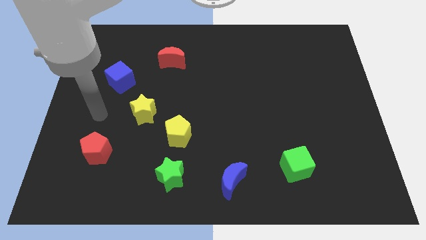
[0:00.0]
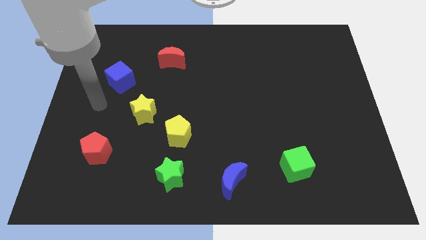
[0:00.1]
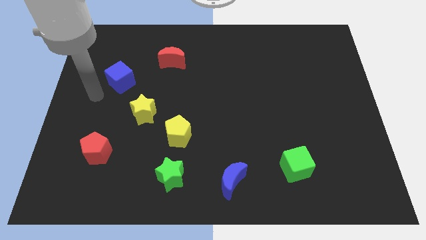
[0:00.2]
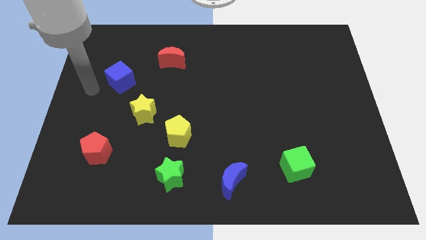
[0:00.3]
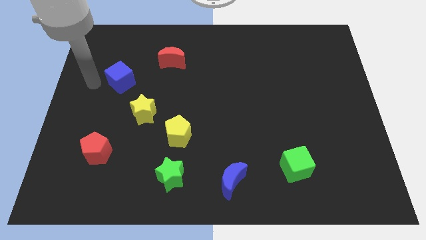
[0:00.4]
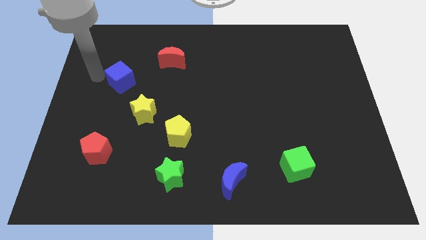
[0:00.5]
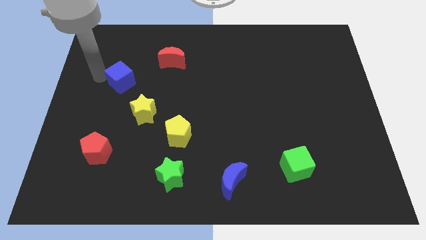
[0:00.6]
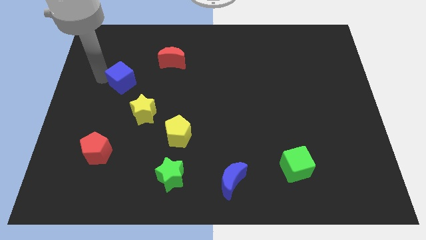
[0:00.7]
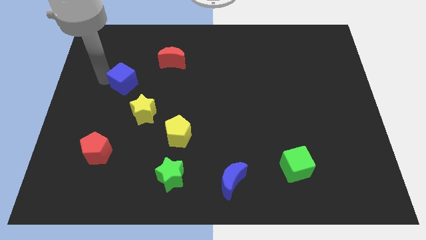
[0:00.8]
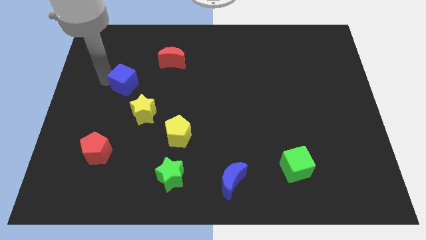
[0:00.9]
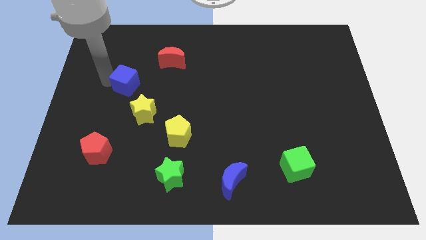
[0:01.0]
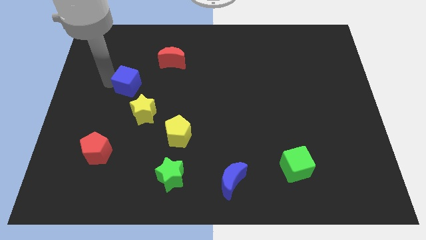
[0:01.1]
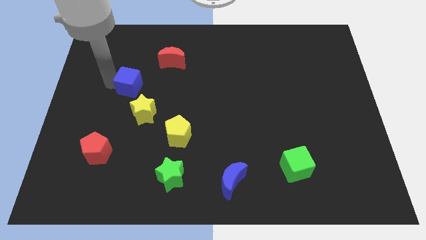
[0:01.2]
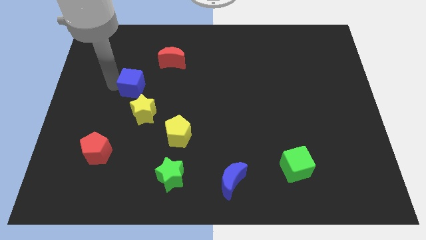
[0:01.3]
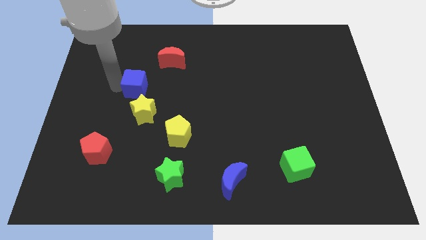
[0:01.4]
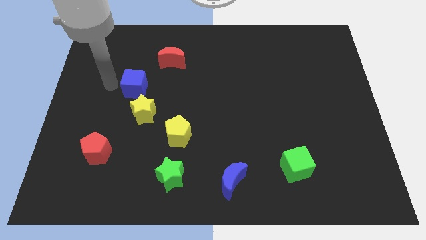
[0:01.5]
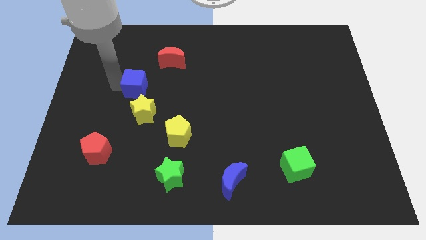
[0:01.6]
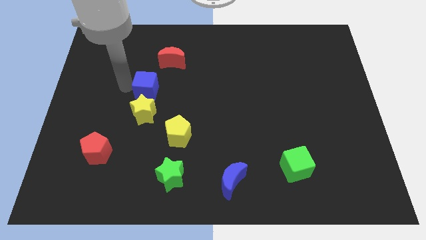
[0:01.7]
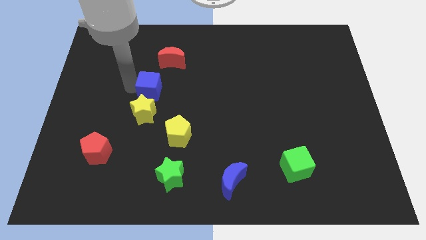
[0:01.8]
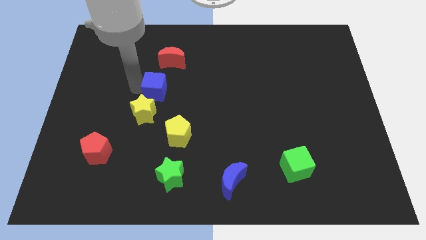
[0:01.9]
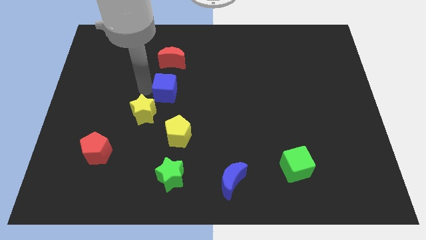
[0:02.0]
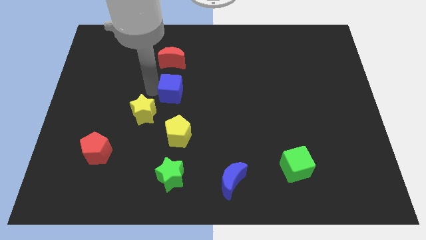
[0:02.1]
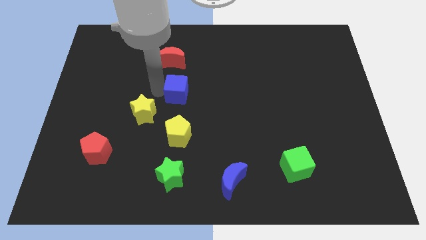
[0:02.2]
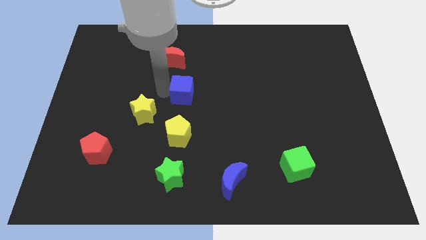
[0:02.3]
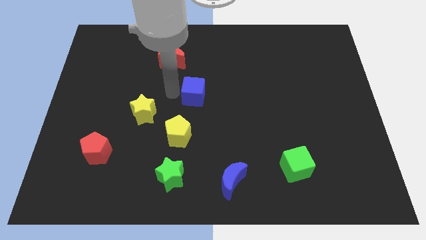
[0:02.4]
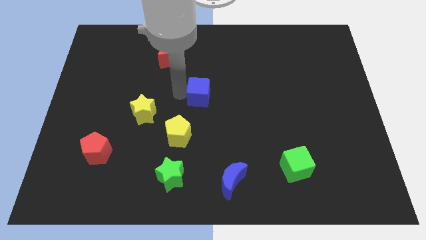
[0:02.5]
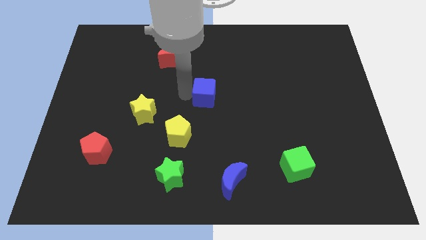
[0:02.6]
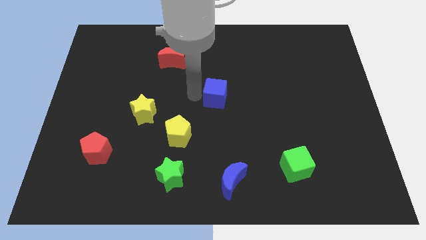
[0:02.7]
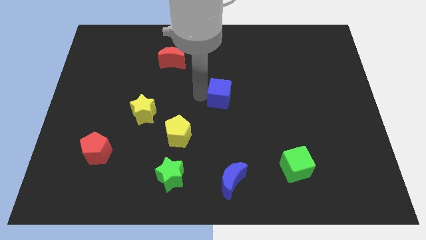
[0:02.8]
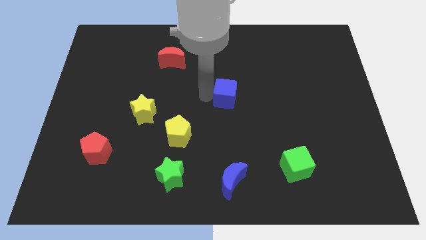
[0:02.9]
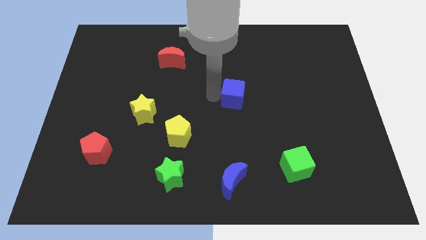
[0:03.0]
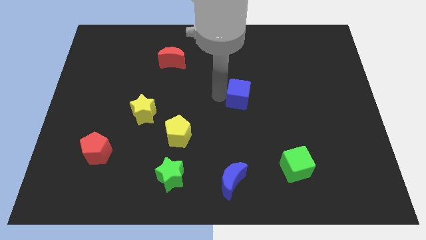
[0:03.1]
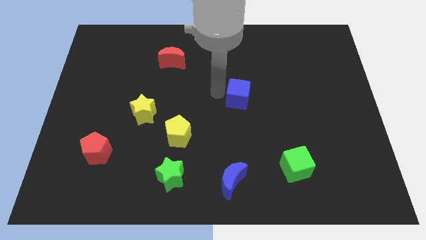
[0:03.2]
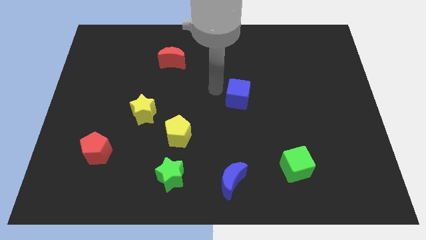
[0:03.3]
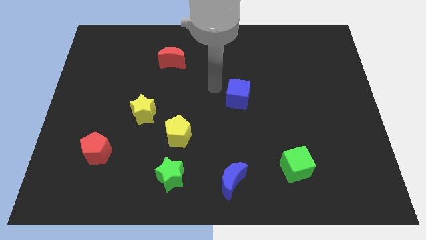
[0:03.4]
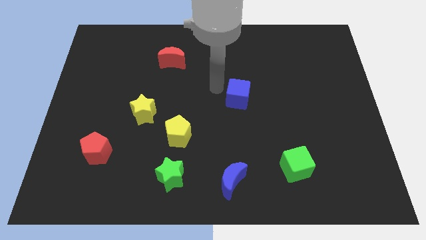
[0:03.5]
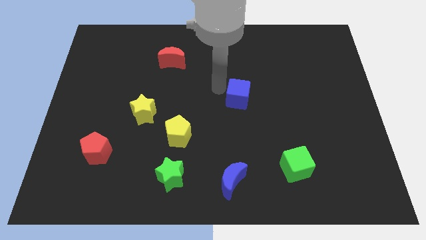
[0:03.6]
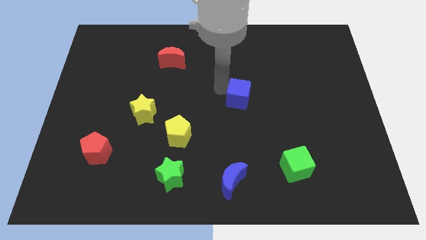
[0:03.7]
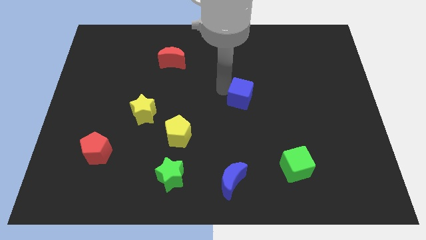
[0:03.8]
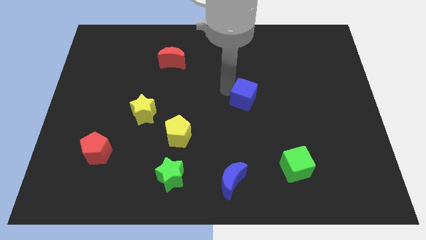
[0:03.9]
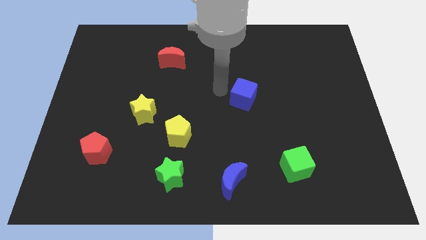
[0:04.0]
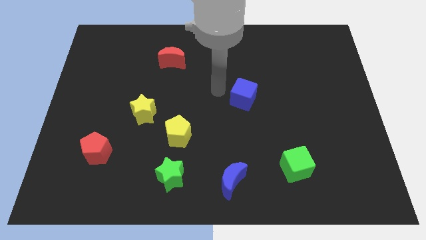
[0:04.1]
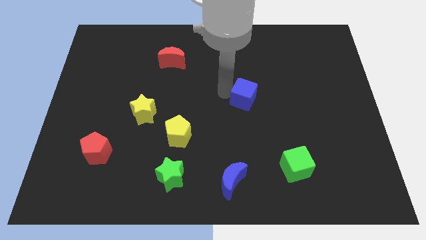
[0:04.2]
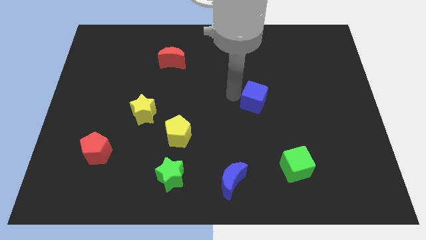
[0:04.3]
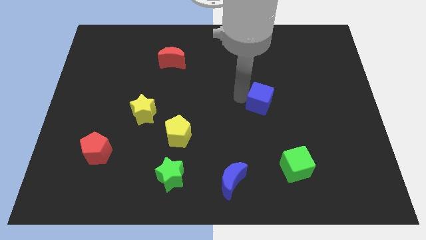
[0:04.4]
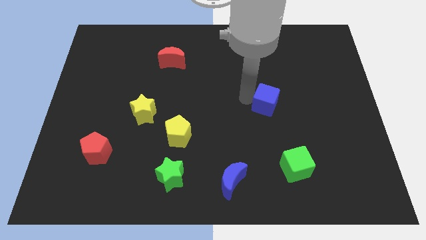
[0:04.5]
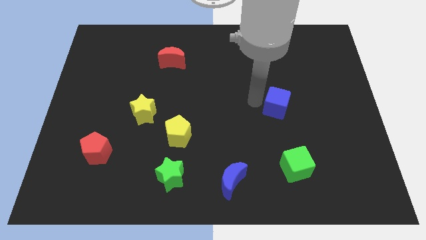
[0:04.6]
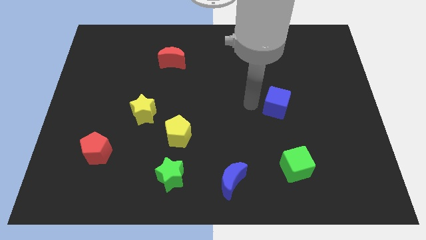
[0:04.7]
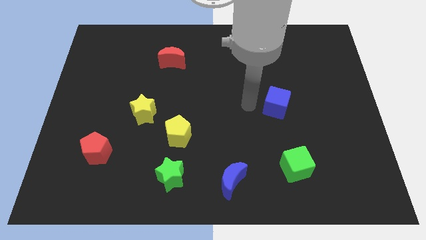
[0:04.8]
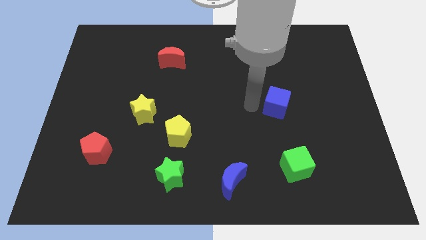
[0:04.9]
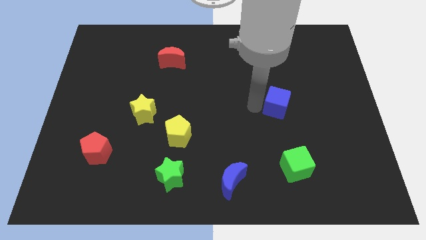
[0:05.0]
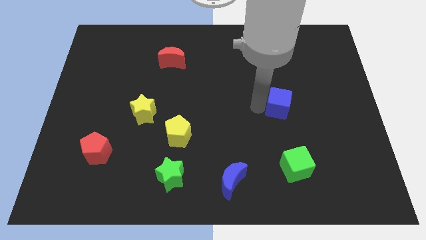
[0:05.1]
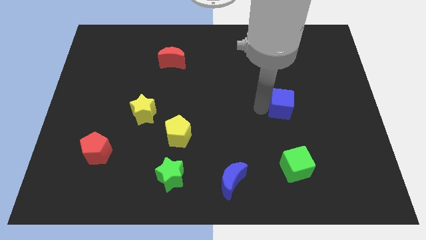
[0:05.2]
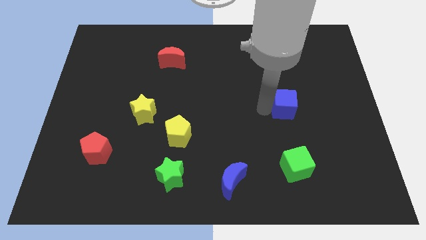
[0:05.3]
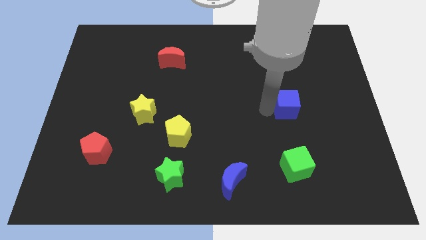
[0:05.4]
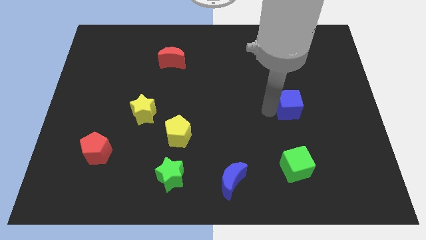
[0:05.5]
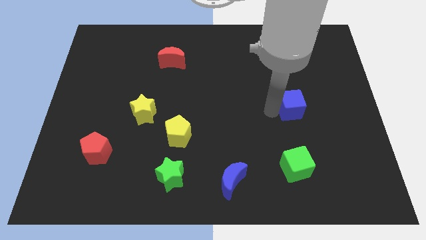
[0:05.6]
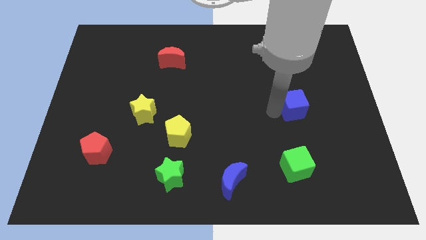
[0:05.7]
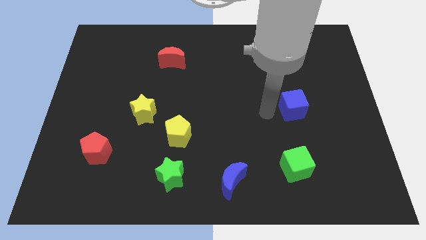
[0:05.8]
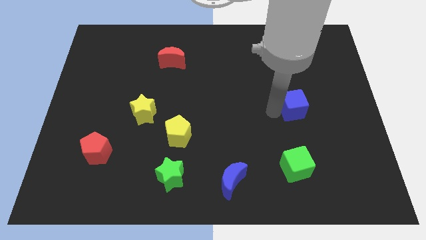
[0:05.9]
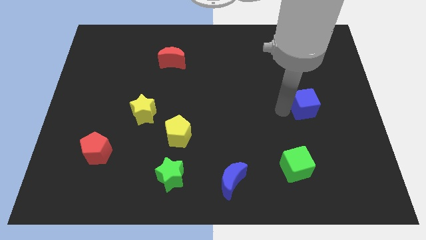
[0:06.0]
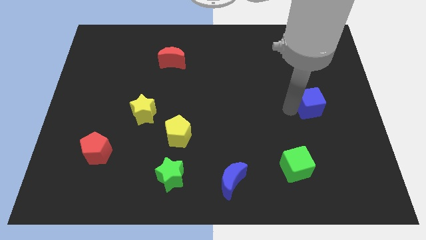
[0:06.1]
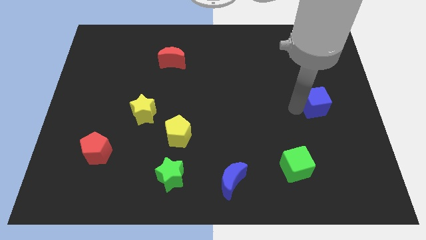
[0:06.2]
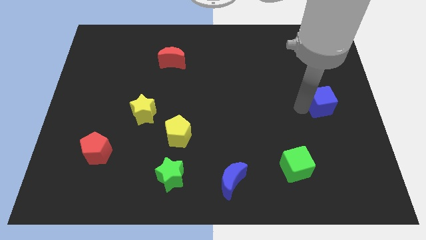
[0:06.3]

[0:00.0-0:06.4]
move the blue cube to the center right

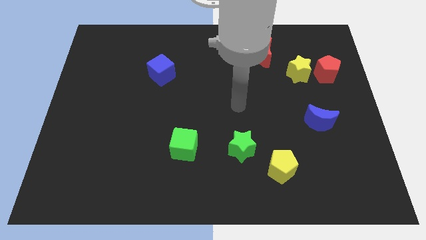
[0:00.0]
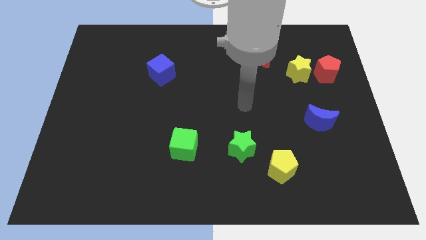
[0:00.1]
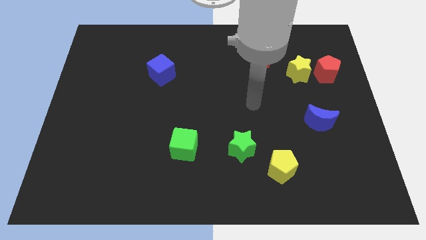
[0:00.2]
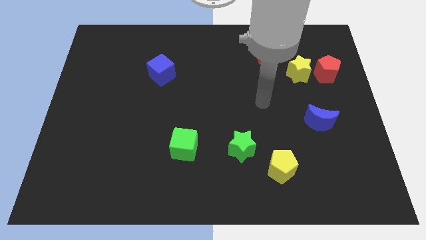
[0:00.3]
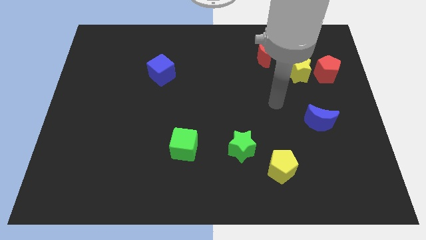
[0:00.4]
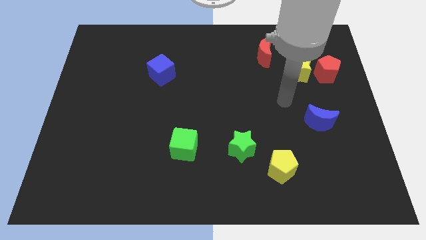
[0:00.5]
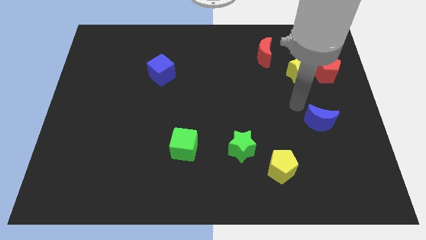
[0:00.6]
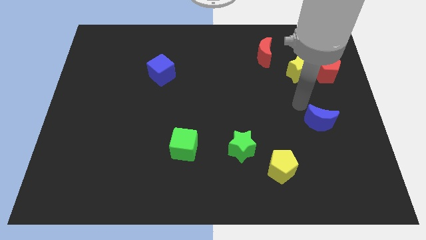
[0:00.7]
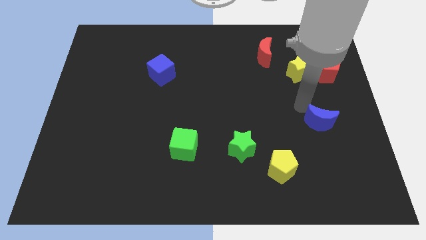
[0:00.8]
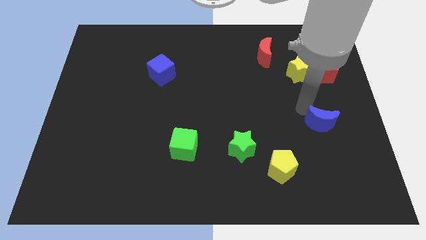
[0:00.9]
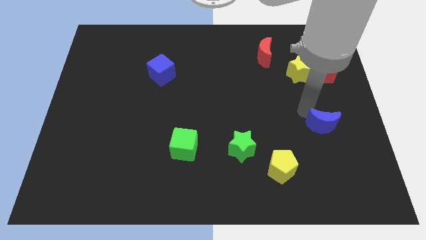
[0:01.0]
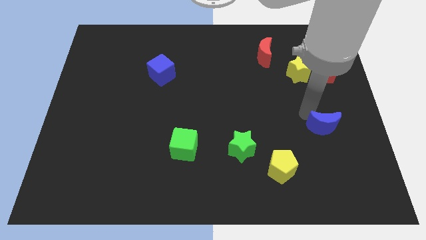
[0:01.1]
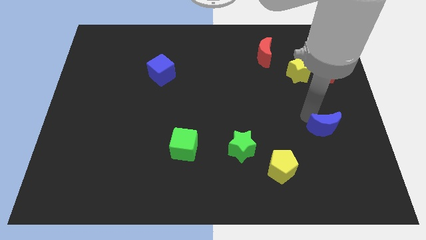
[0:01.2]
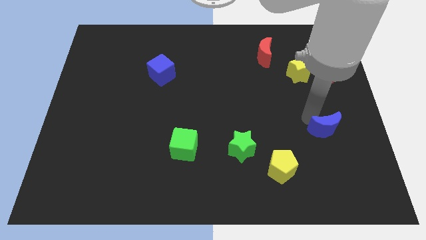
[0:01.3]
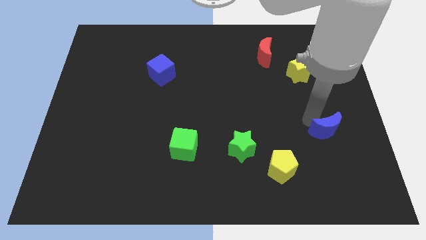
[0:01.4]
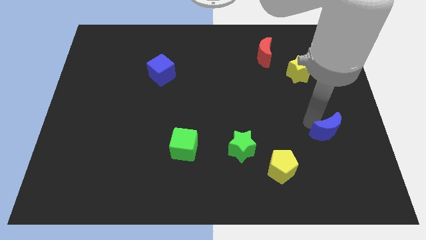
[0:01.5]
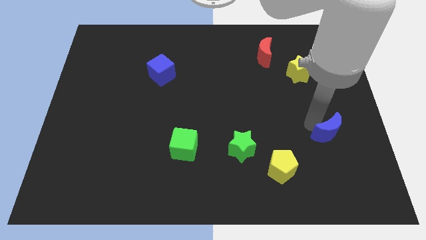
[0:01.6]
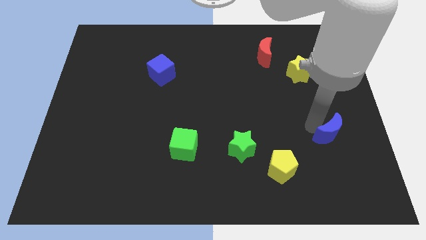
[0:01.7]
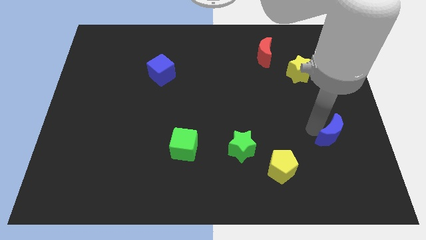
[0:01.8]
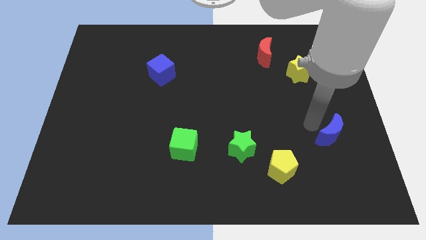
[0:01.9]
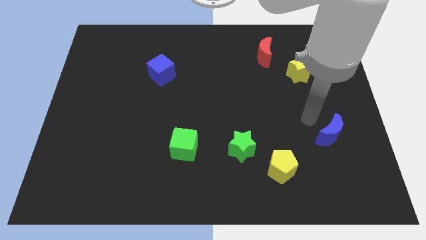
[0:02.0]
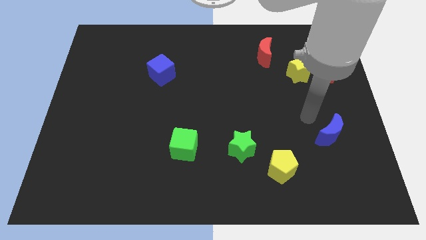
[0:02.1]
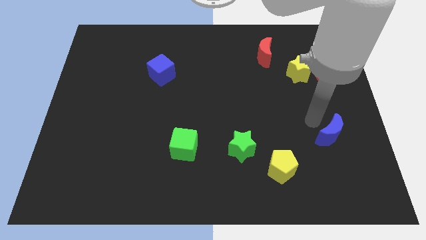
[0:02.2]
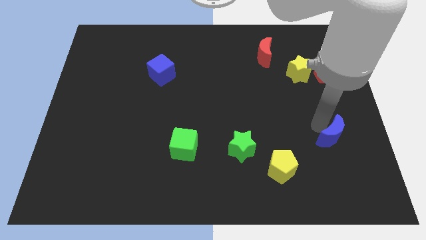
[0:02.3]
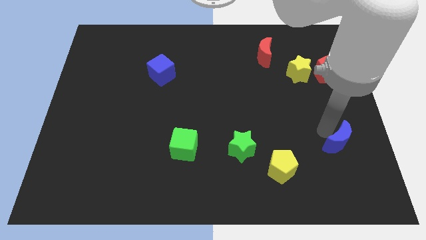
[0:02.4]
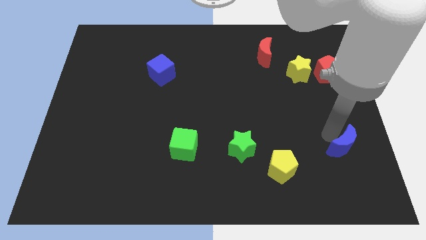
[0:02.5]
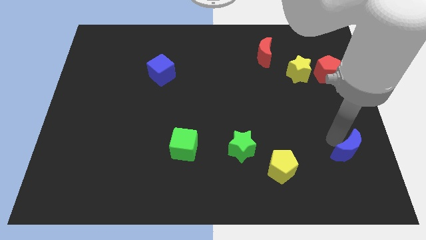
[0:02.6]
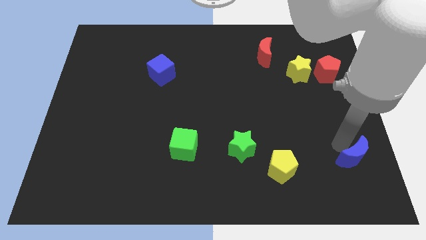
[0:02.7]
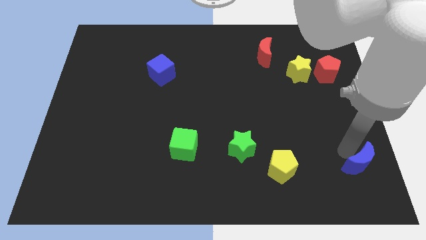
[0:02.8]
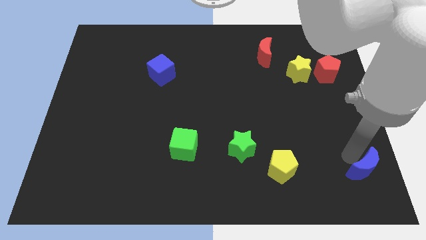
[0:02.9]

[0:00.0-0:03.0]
slide the blue moon to the lower right corner
